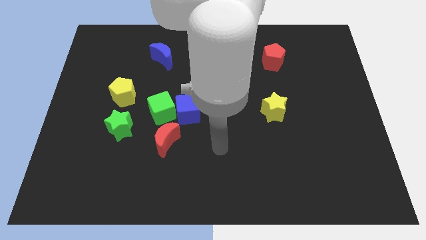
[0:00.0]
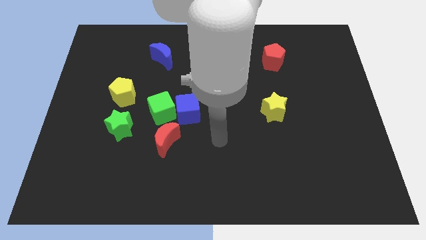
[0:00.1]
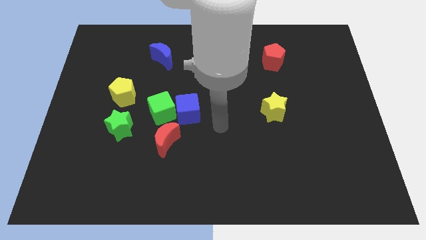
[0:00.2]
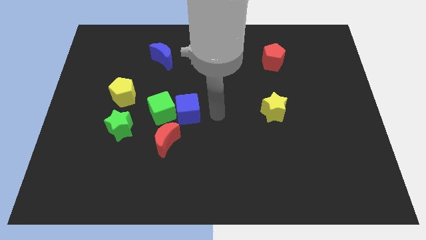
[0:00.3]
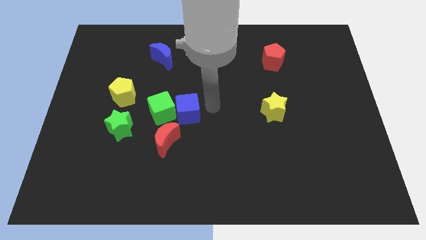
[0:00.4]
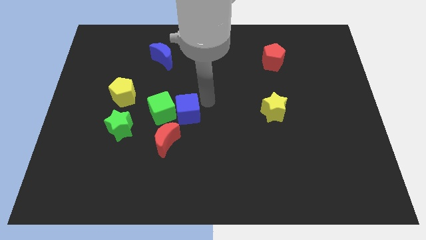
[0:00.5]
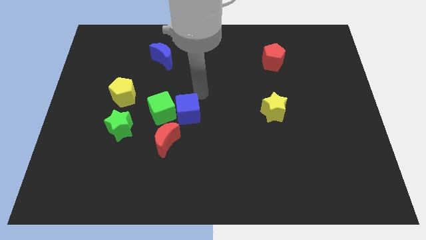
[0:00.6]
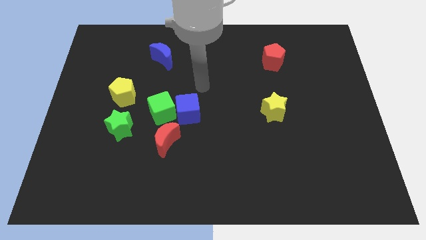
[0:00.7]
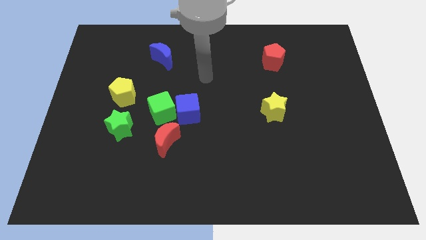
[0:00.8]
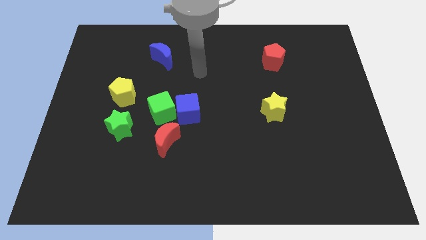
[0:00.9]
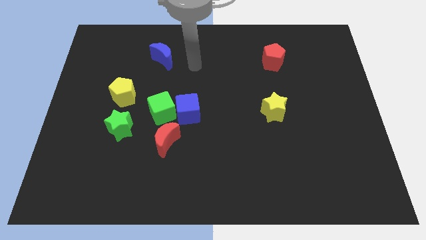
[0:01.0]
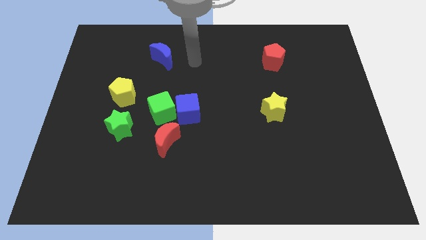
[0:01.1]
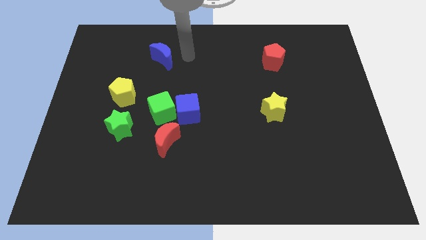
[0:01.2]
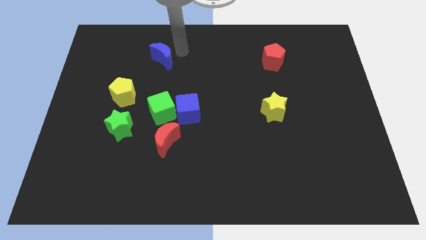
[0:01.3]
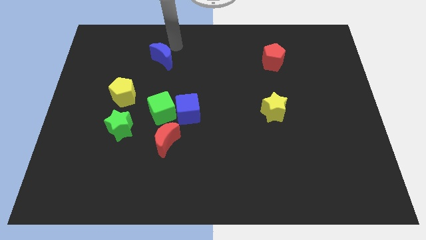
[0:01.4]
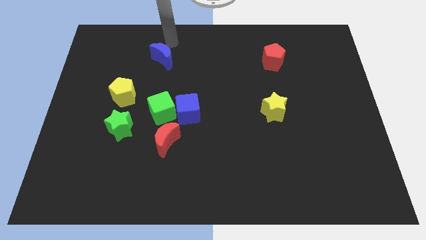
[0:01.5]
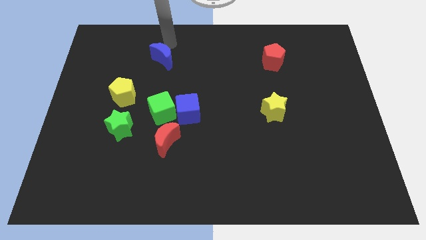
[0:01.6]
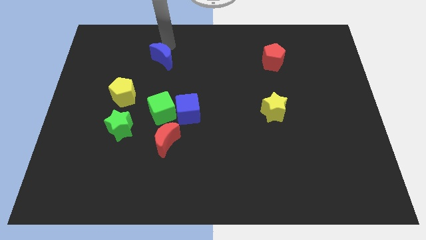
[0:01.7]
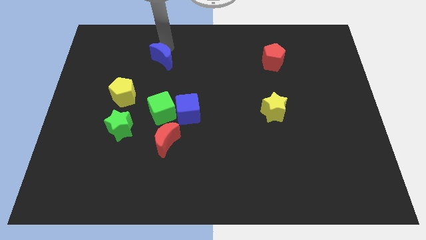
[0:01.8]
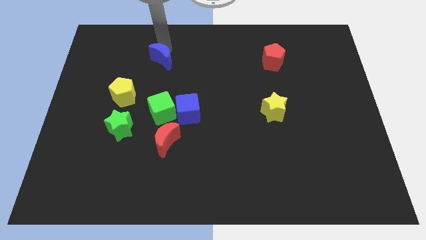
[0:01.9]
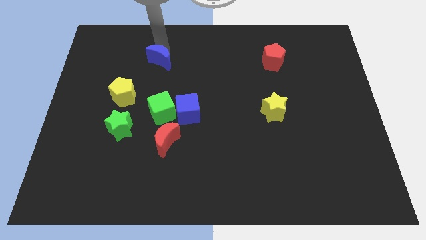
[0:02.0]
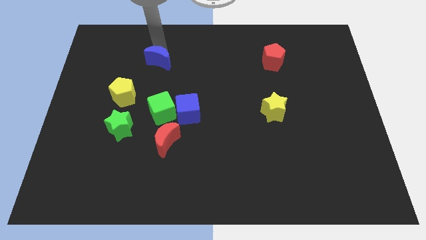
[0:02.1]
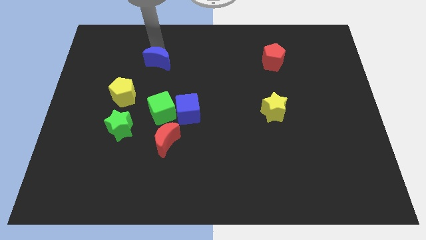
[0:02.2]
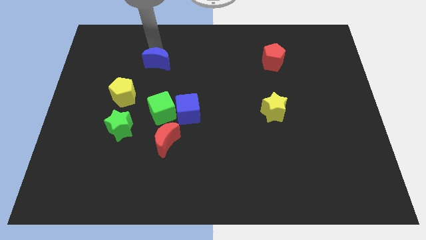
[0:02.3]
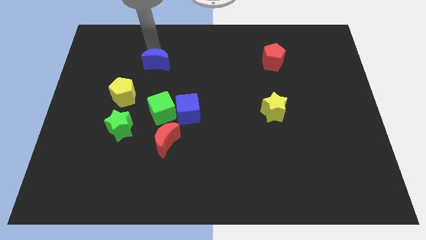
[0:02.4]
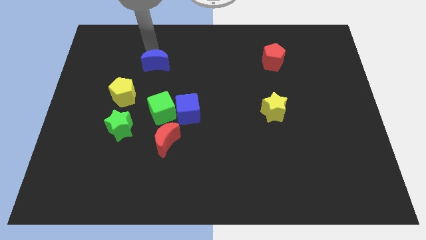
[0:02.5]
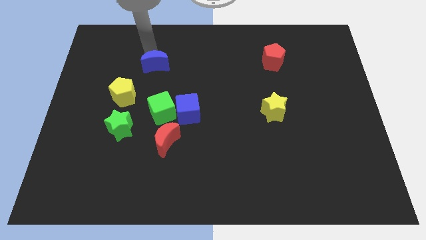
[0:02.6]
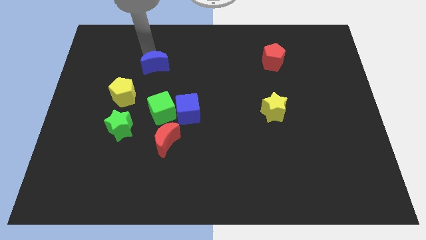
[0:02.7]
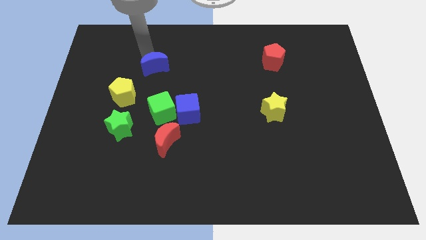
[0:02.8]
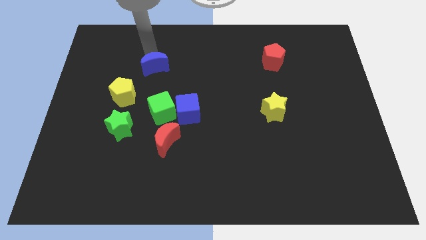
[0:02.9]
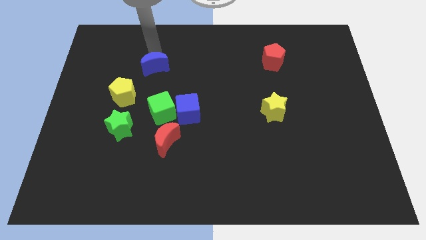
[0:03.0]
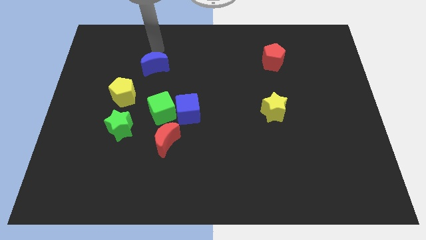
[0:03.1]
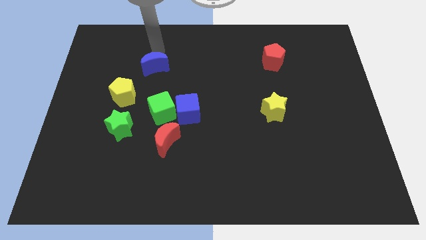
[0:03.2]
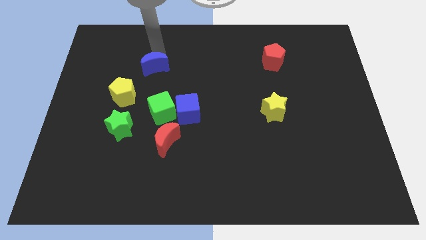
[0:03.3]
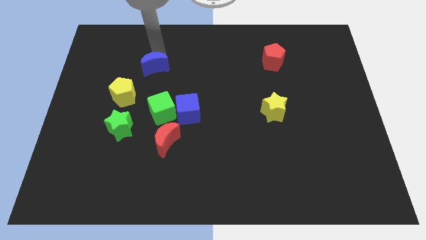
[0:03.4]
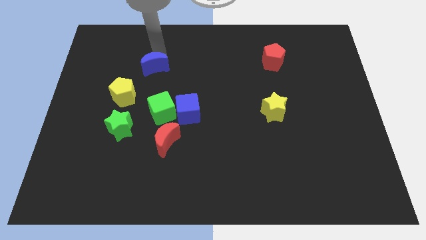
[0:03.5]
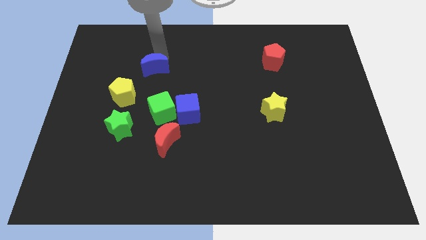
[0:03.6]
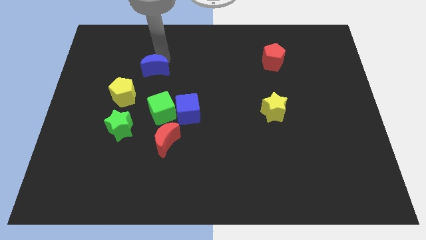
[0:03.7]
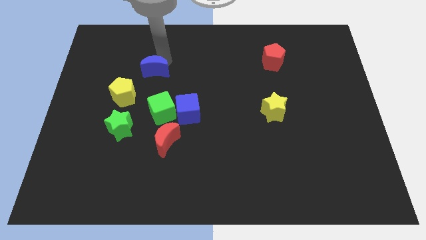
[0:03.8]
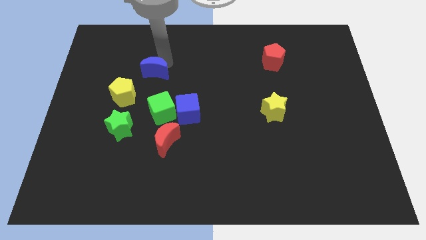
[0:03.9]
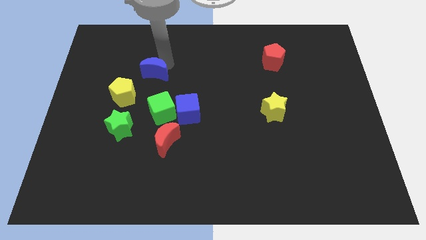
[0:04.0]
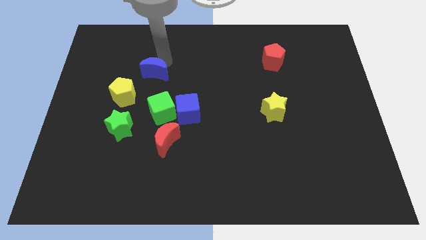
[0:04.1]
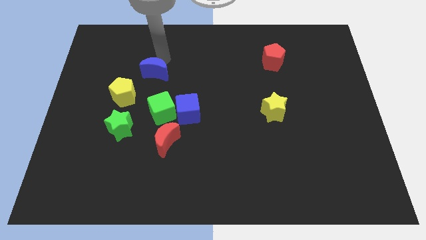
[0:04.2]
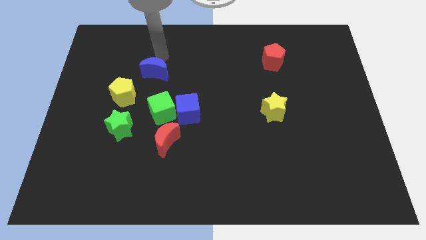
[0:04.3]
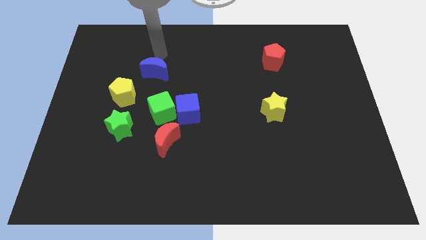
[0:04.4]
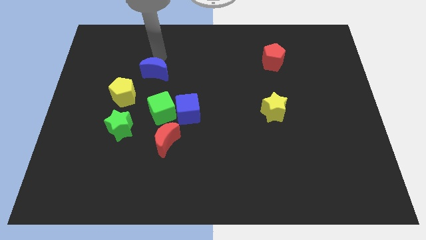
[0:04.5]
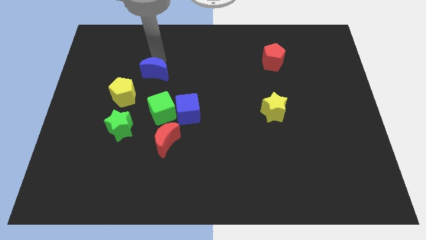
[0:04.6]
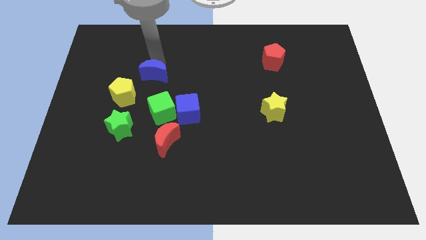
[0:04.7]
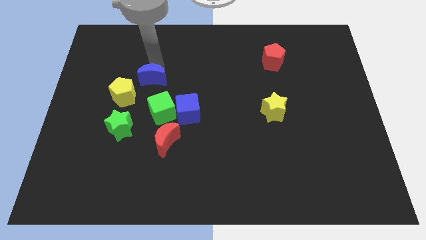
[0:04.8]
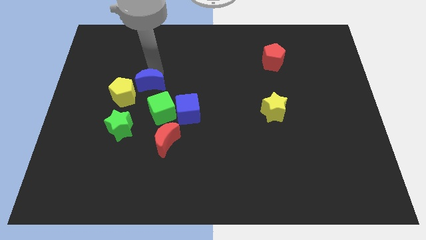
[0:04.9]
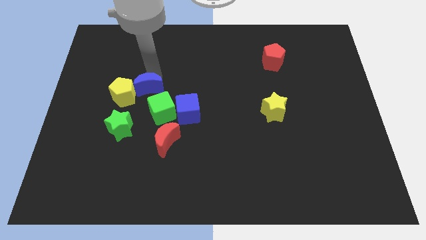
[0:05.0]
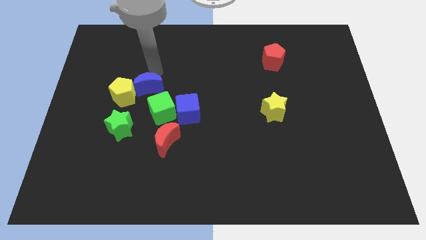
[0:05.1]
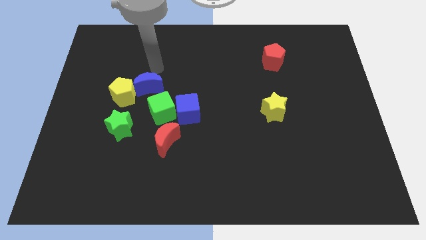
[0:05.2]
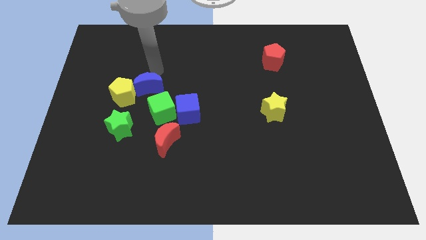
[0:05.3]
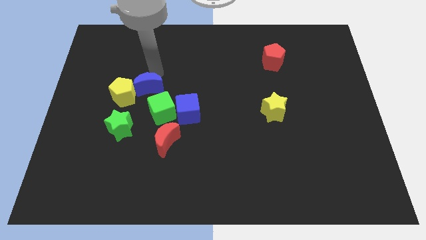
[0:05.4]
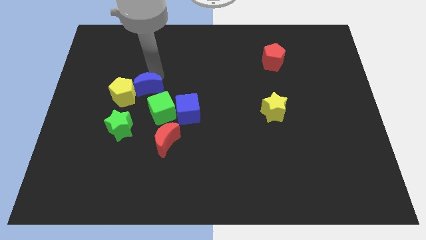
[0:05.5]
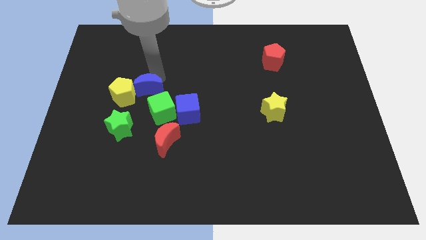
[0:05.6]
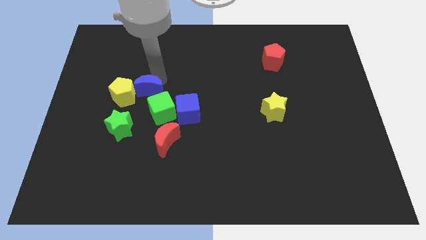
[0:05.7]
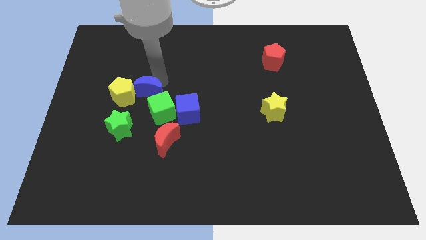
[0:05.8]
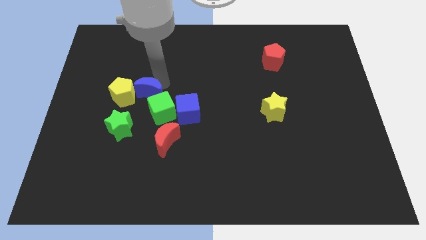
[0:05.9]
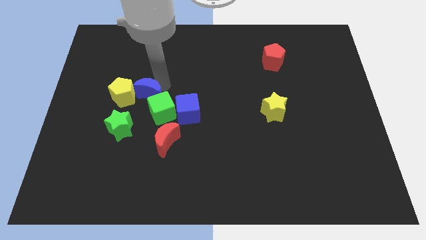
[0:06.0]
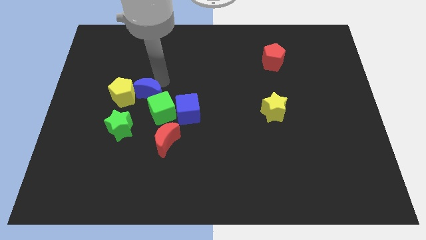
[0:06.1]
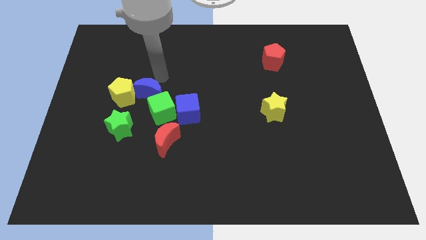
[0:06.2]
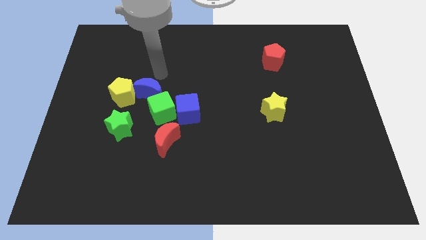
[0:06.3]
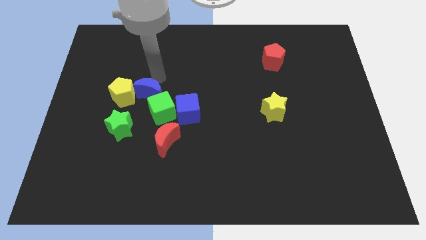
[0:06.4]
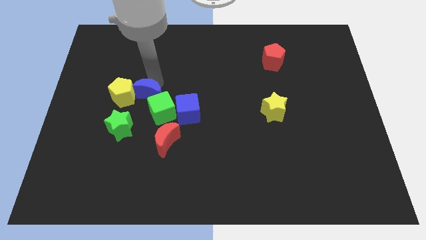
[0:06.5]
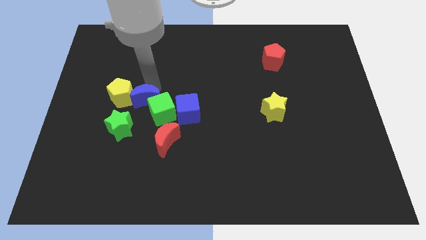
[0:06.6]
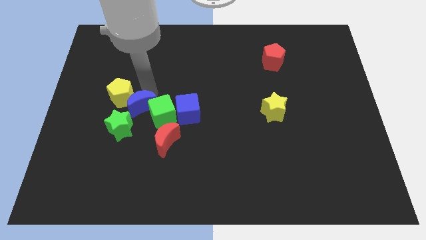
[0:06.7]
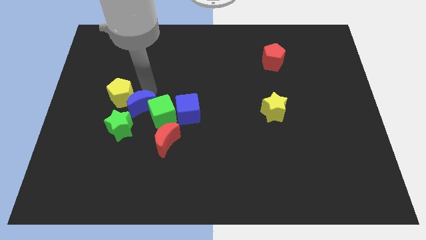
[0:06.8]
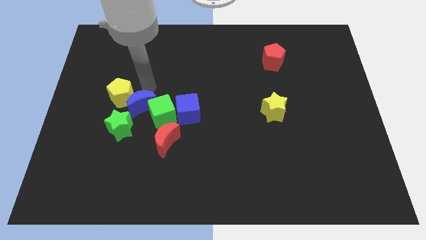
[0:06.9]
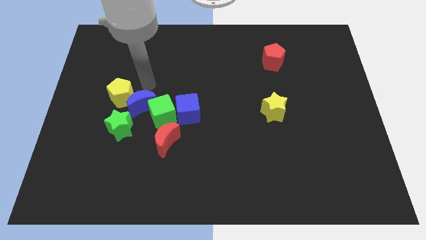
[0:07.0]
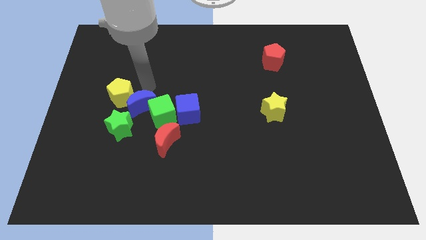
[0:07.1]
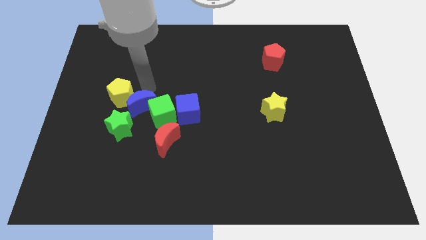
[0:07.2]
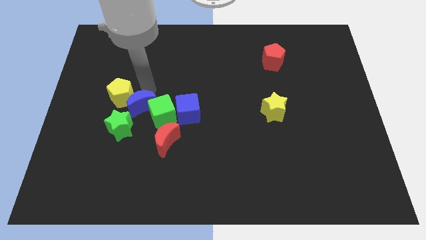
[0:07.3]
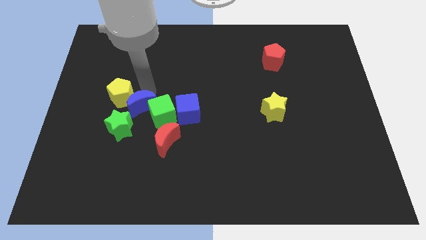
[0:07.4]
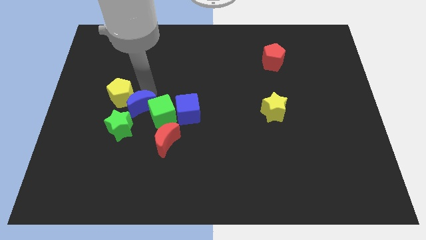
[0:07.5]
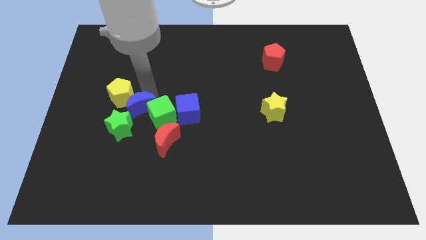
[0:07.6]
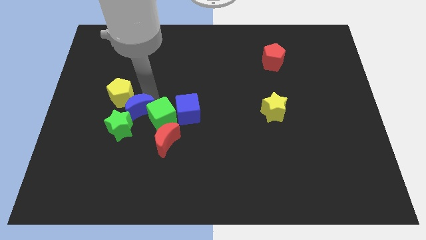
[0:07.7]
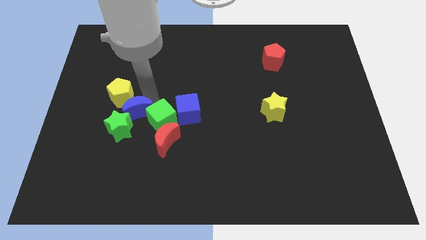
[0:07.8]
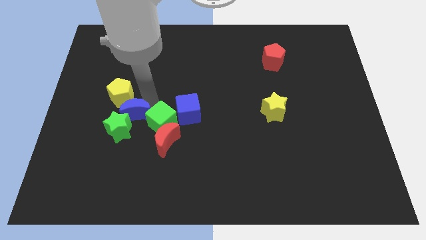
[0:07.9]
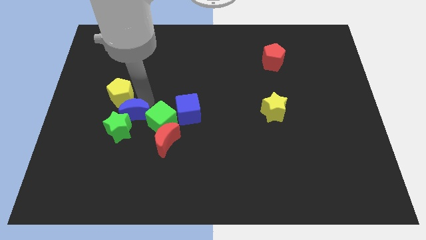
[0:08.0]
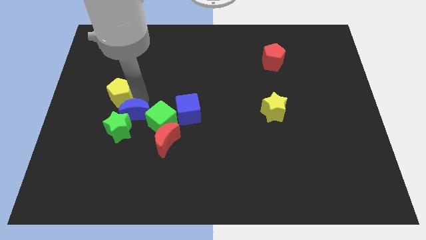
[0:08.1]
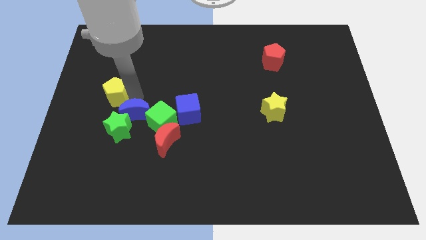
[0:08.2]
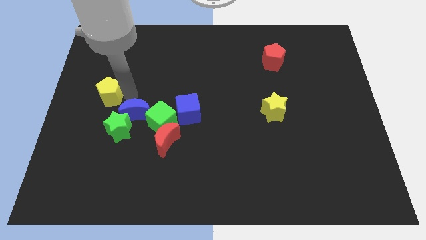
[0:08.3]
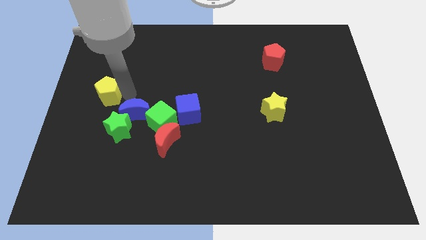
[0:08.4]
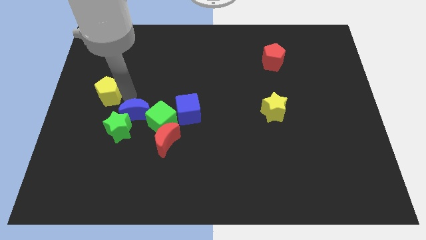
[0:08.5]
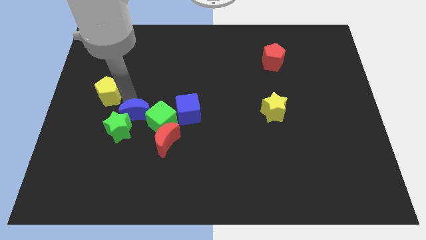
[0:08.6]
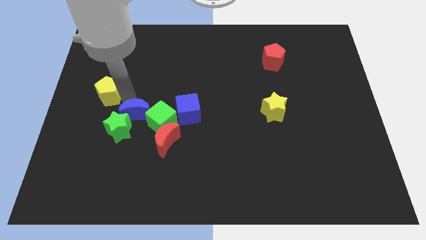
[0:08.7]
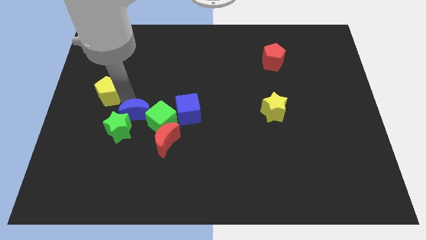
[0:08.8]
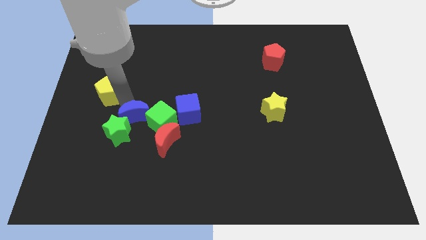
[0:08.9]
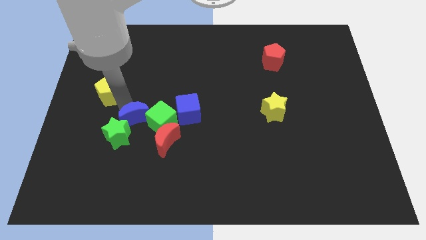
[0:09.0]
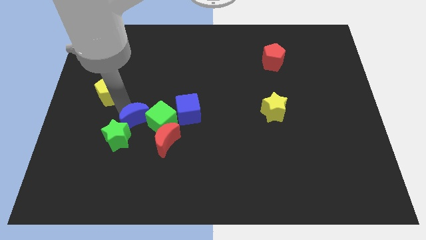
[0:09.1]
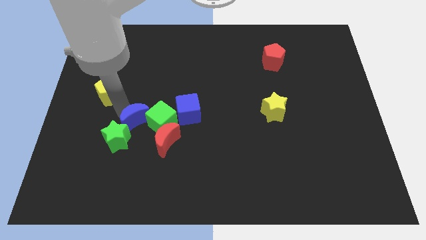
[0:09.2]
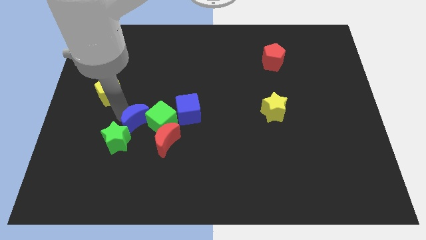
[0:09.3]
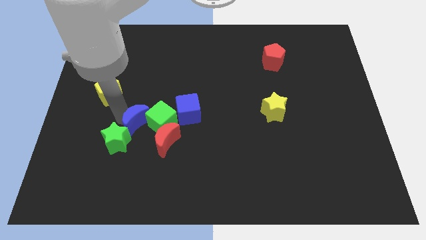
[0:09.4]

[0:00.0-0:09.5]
slide the blue moon downwards
